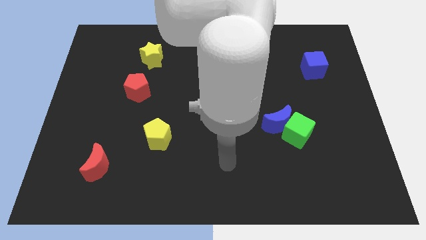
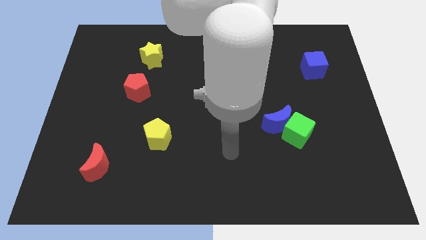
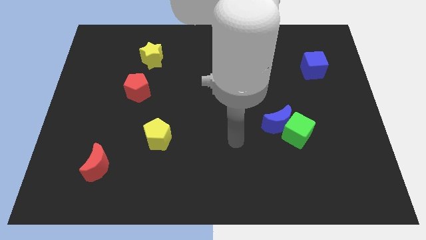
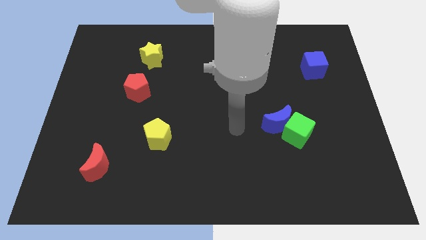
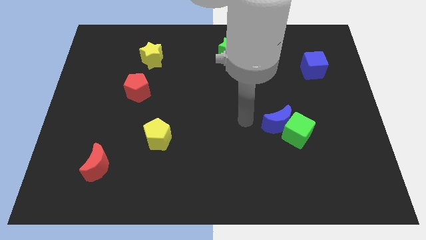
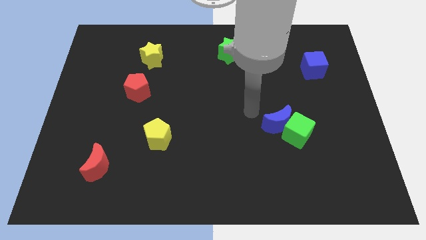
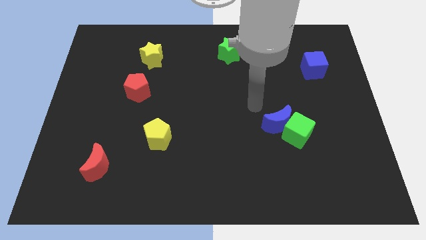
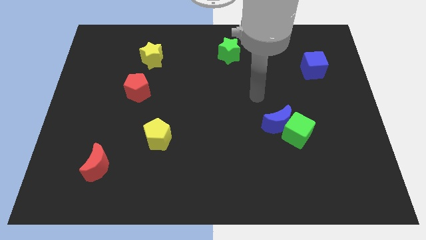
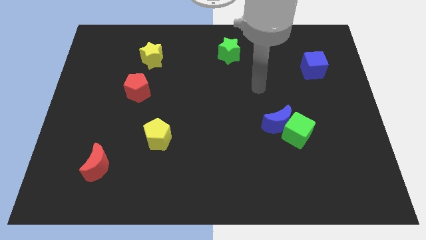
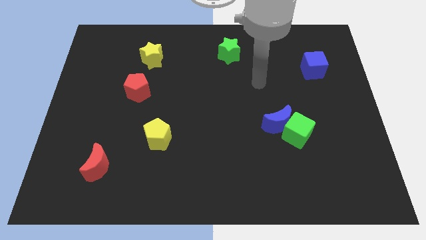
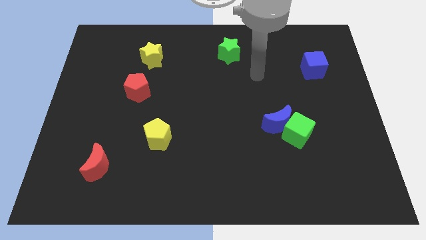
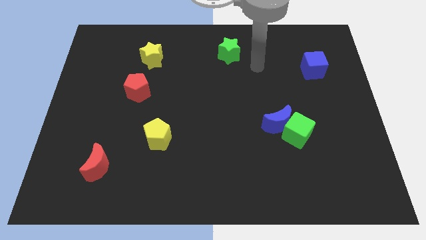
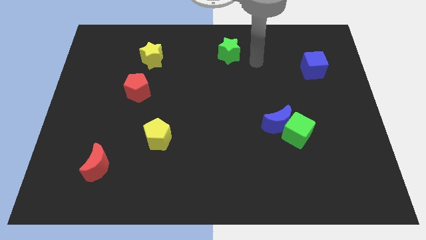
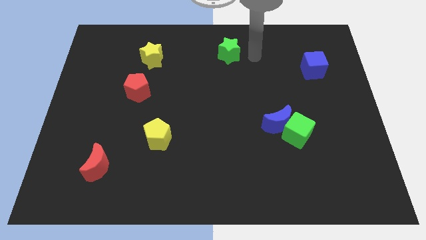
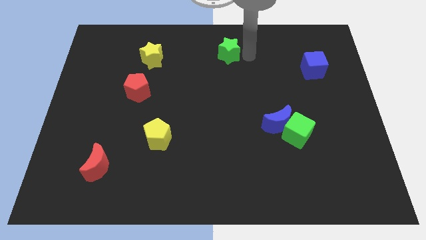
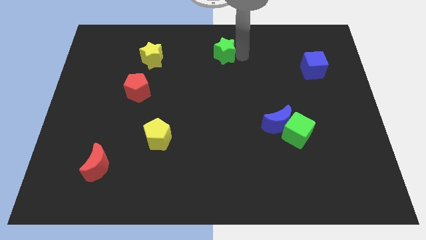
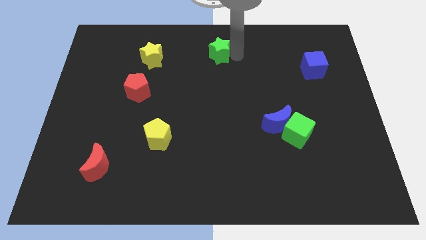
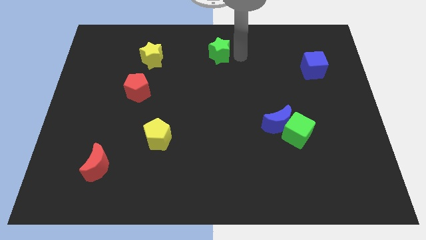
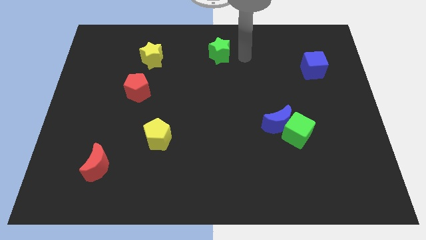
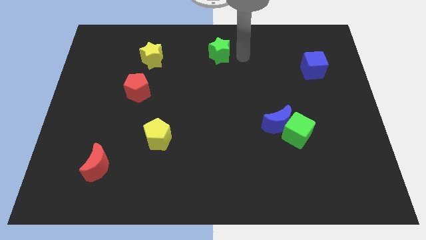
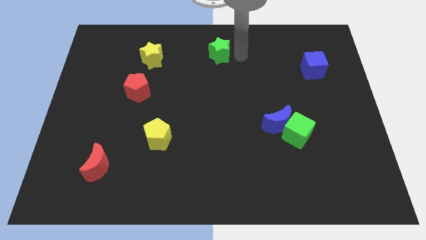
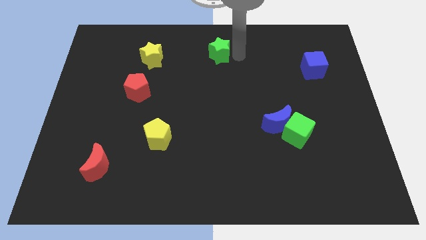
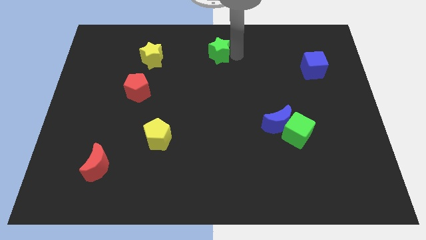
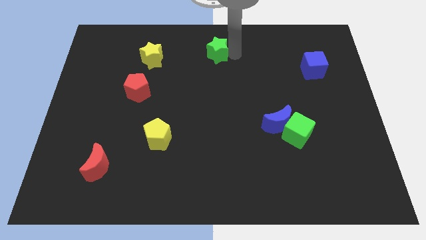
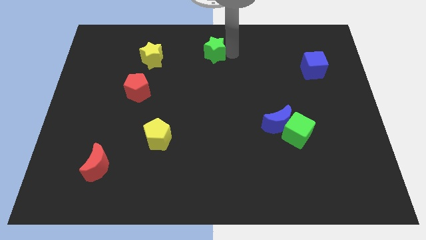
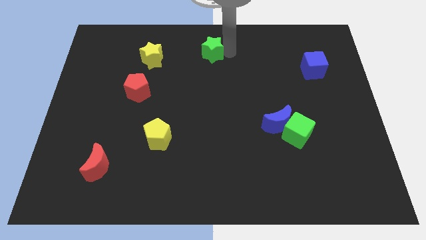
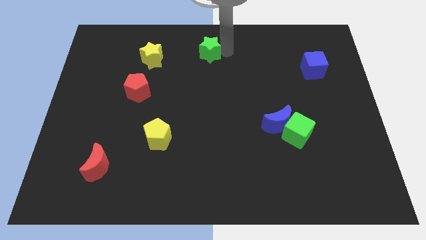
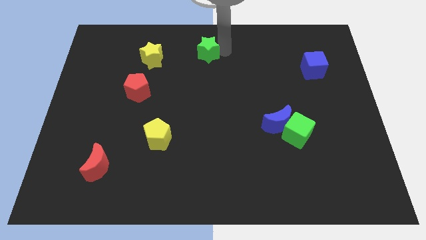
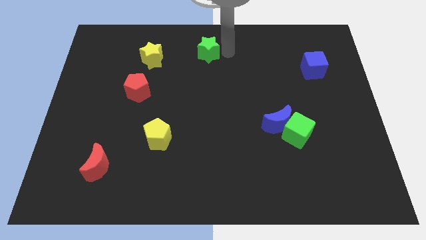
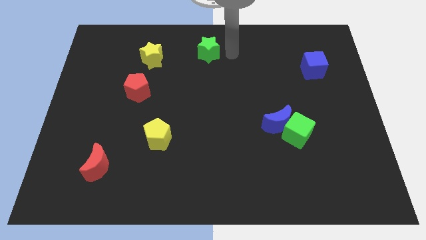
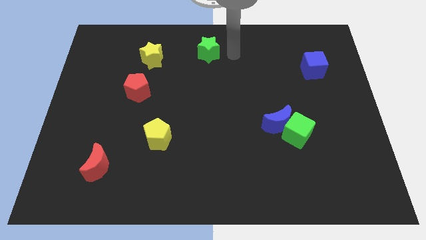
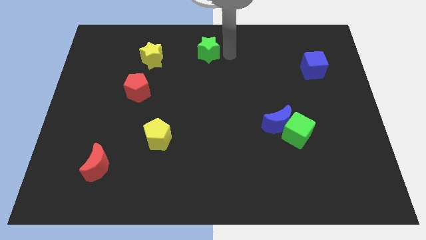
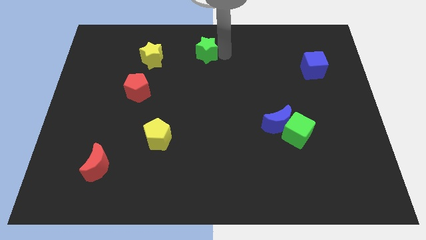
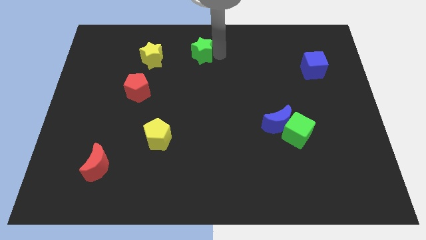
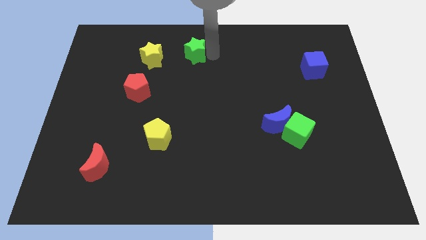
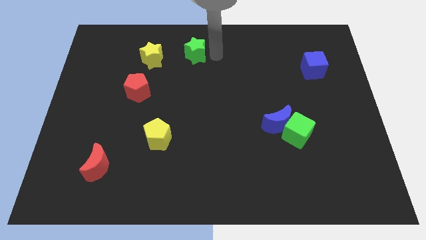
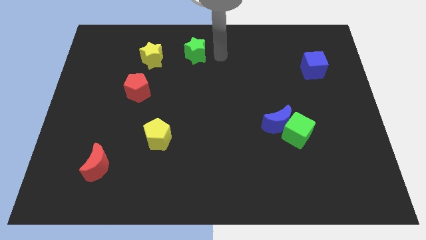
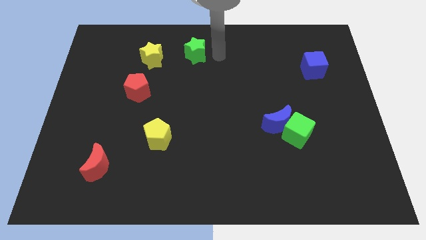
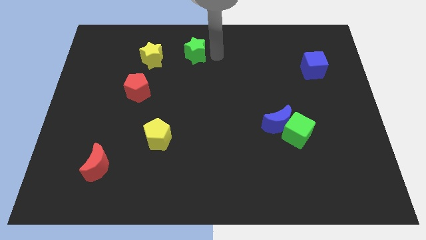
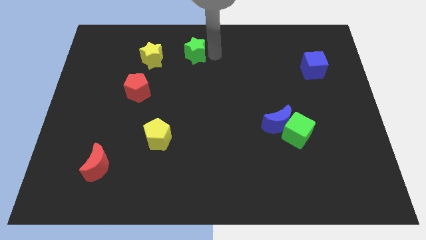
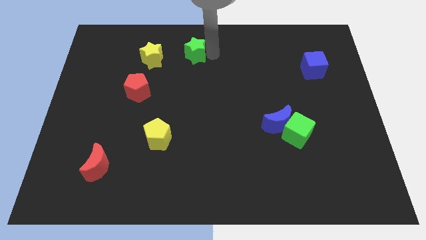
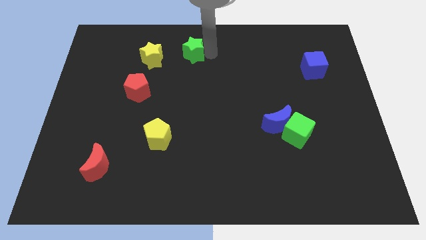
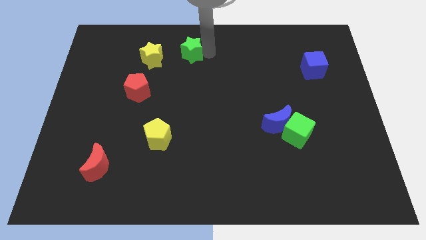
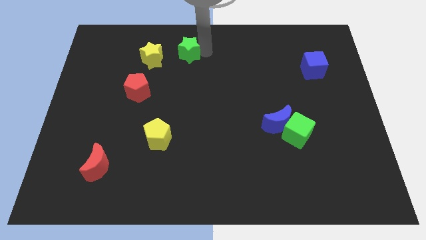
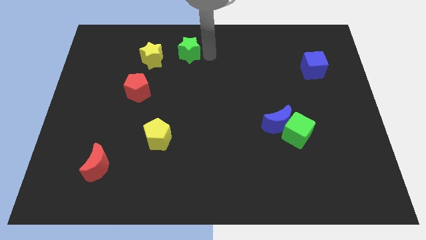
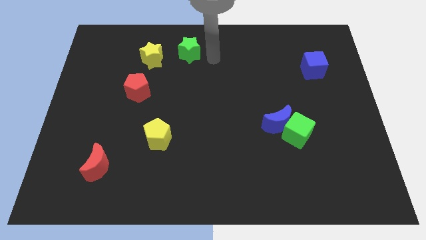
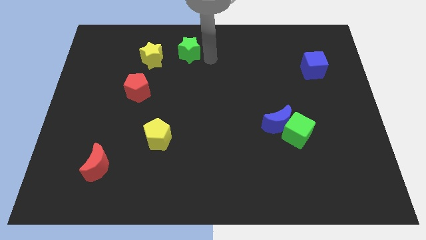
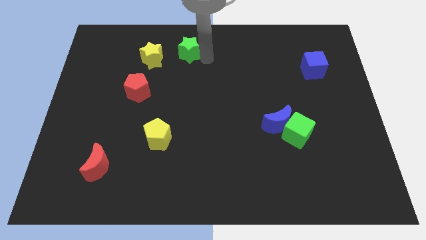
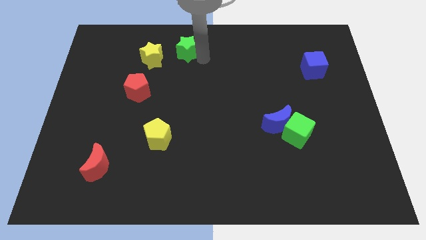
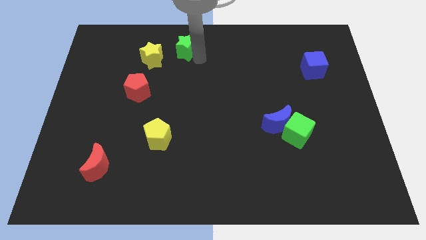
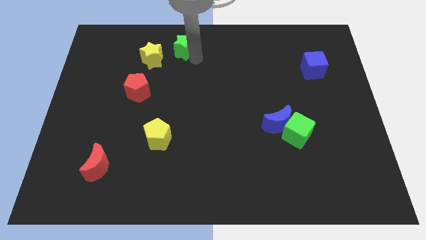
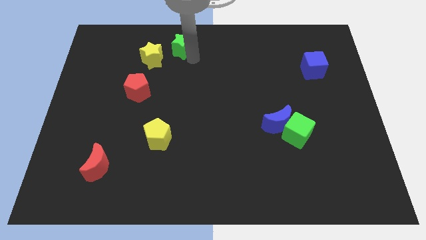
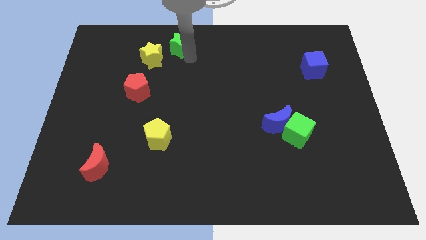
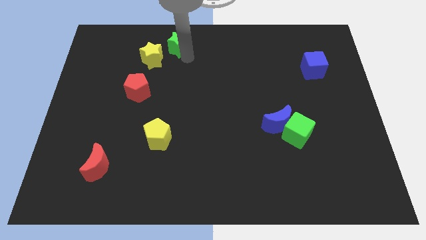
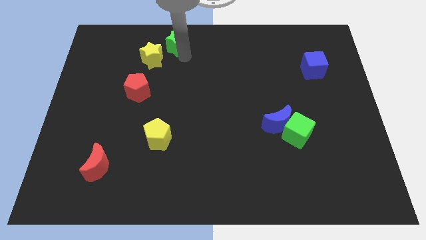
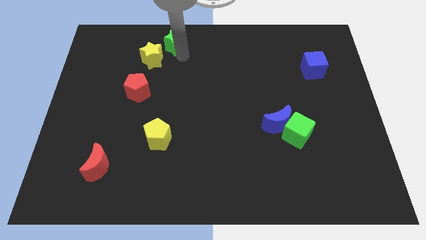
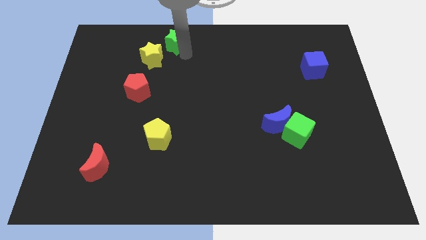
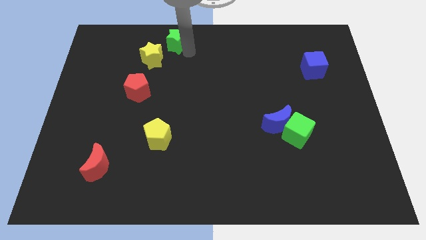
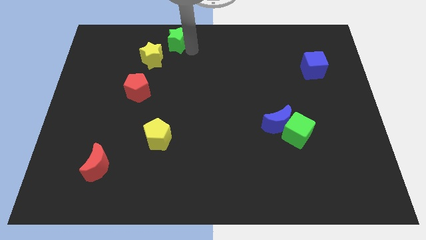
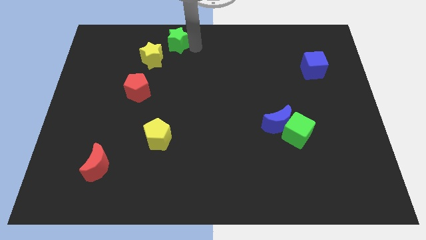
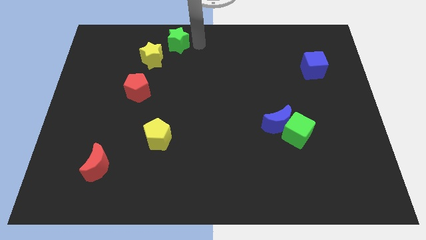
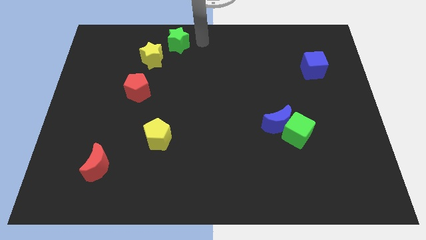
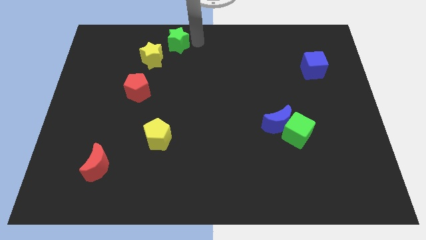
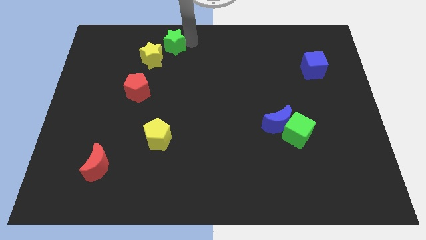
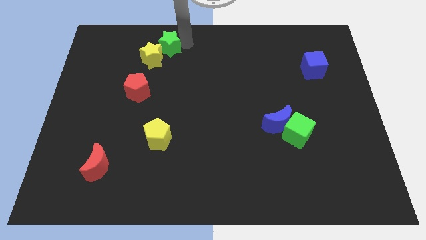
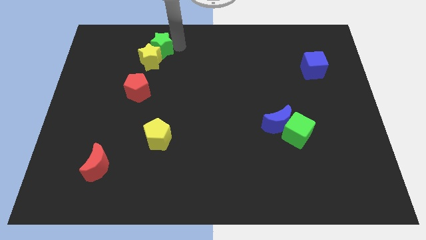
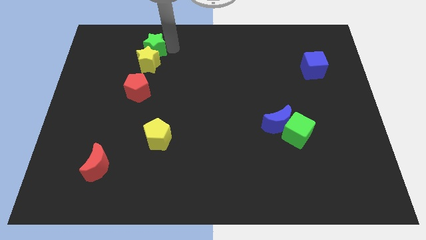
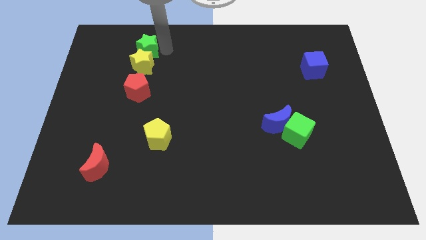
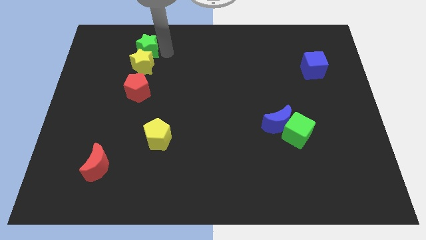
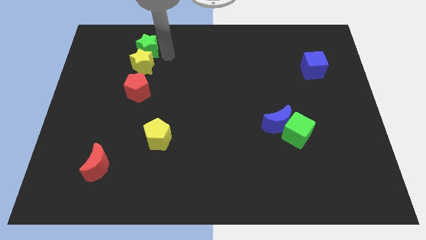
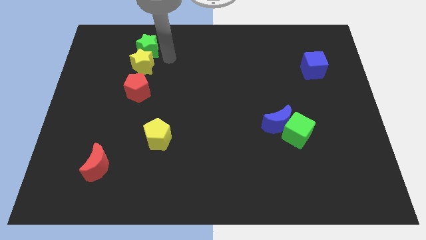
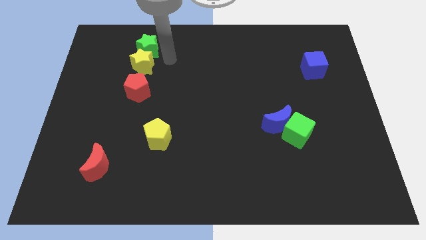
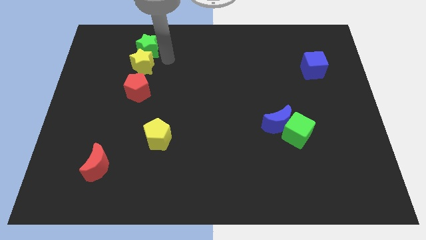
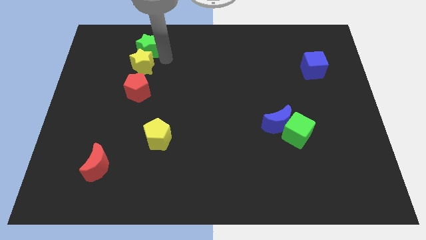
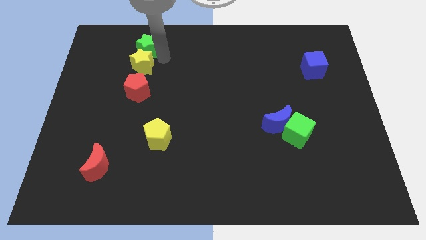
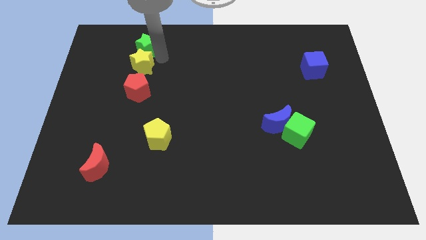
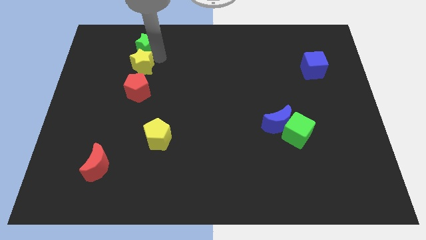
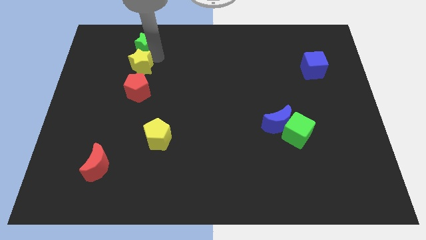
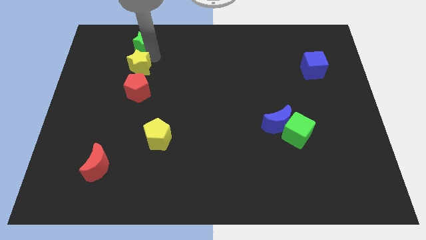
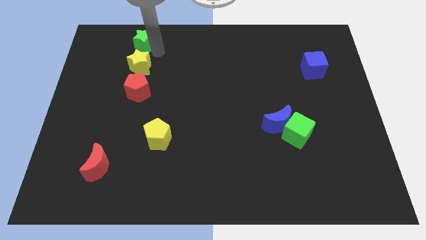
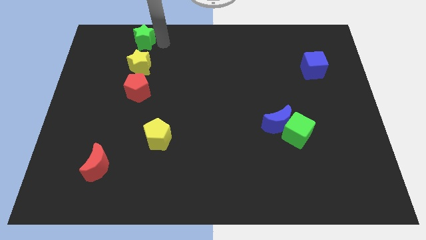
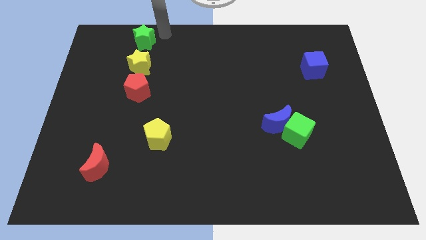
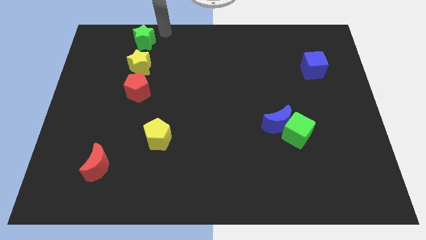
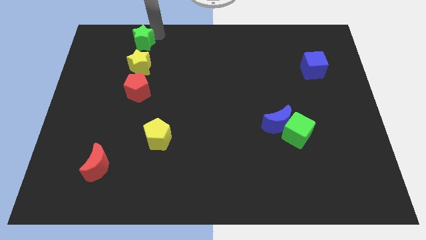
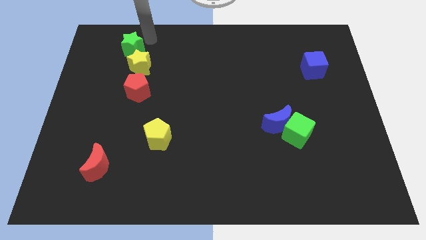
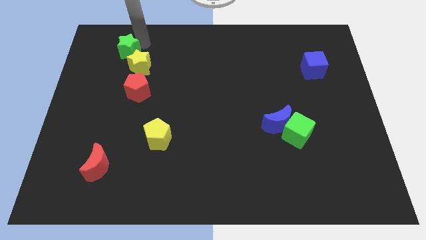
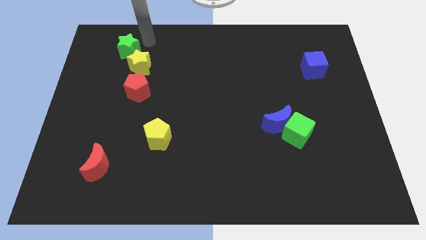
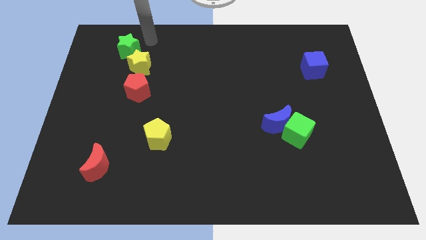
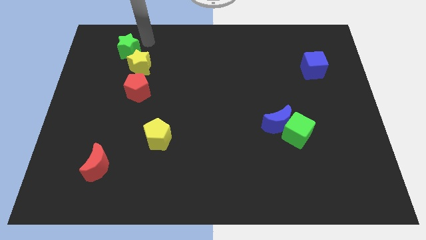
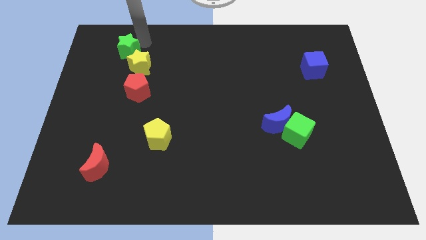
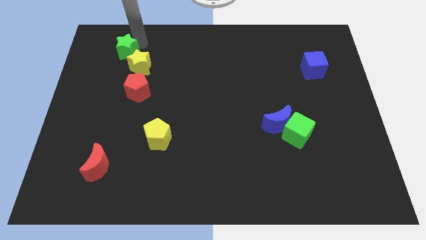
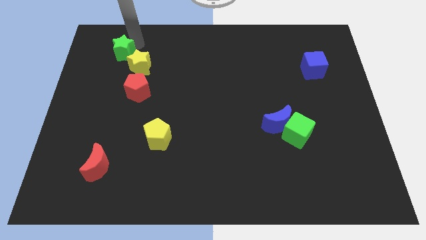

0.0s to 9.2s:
put the green star left of the yellow star
